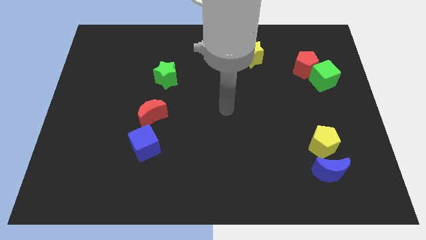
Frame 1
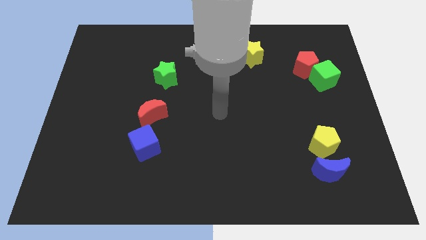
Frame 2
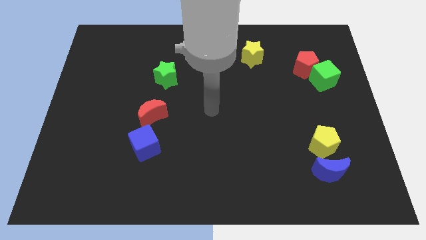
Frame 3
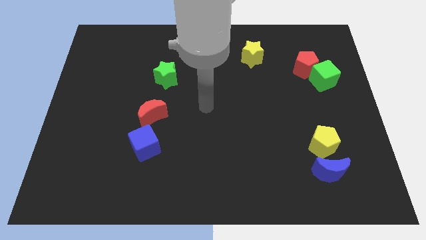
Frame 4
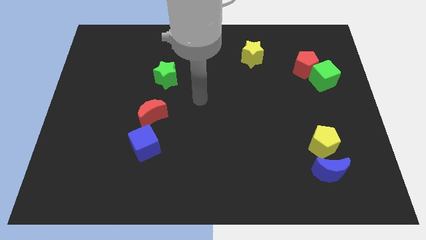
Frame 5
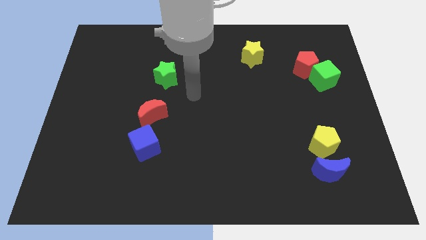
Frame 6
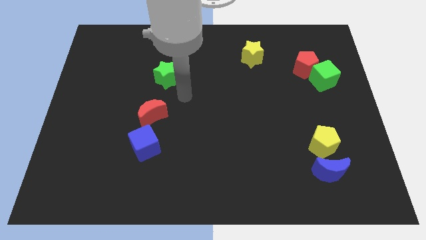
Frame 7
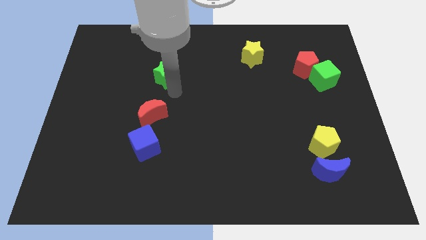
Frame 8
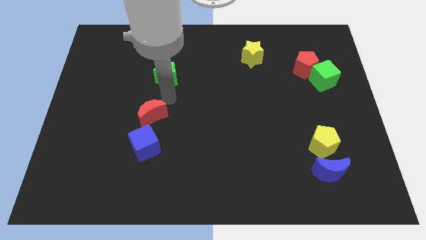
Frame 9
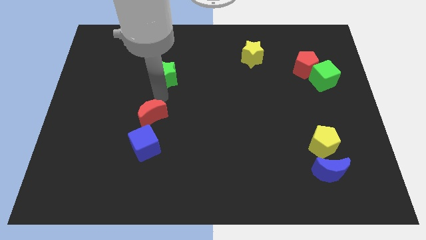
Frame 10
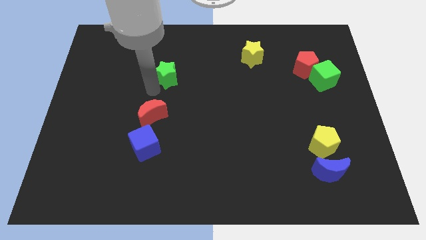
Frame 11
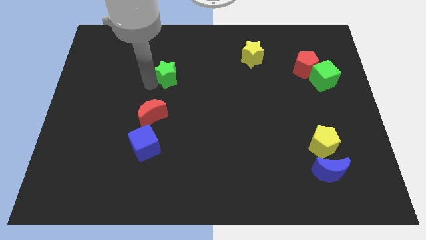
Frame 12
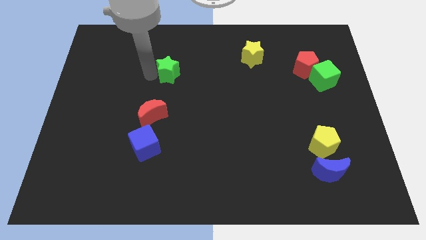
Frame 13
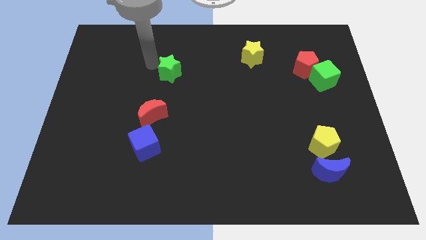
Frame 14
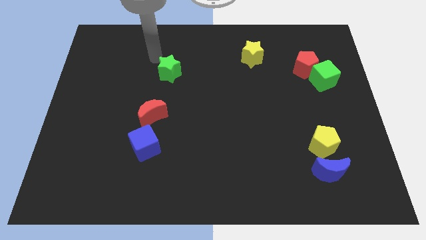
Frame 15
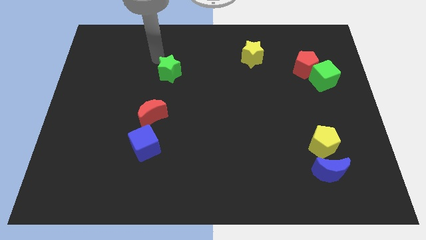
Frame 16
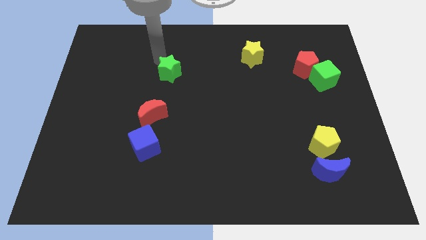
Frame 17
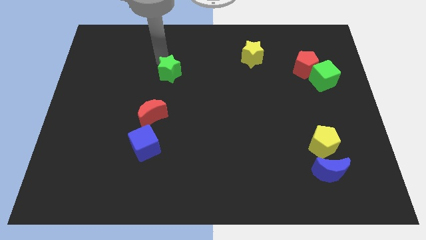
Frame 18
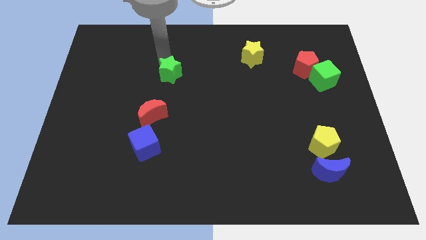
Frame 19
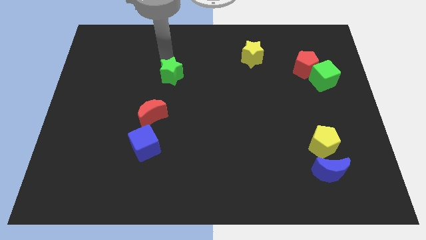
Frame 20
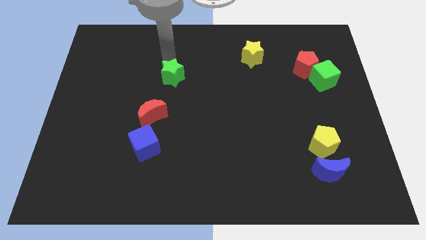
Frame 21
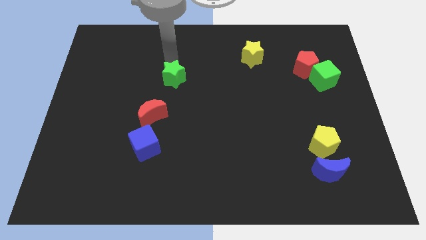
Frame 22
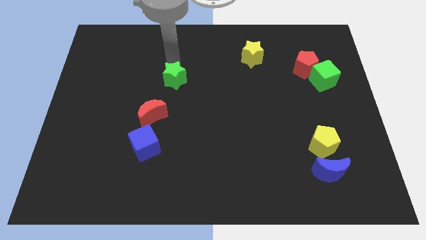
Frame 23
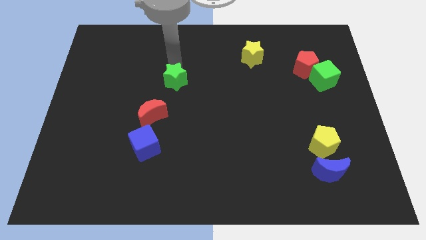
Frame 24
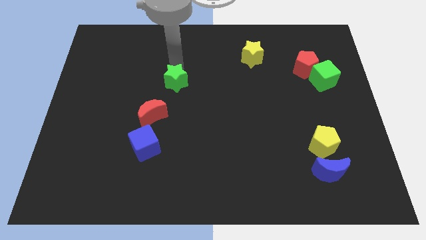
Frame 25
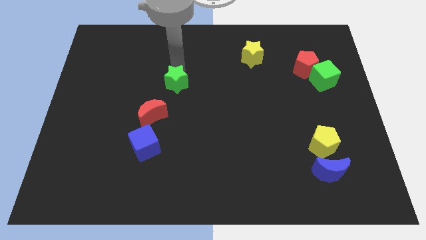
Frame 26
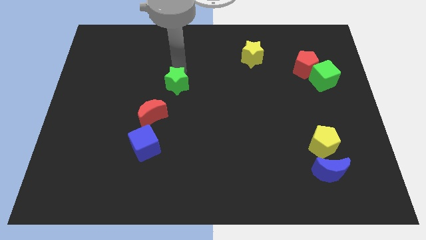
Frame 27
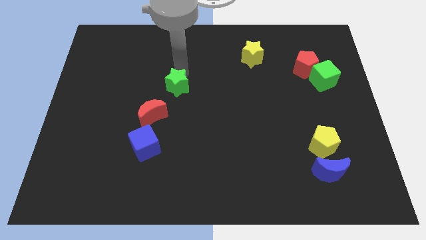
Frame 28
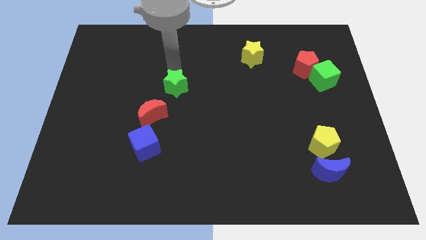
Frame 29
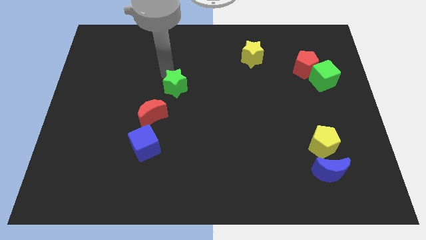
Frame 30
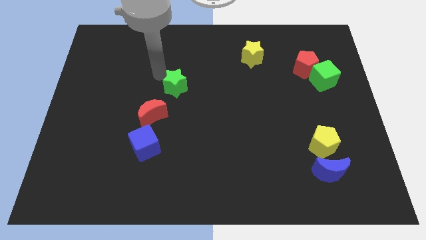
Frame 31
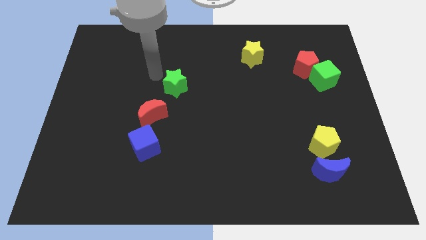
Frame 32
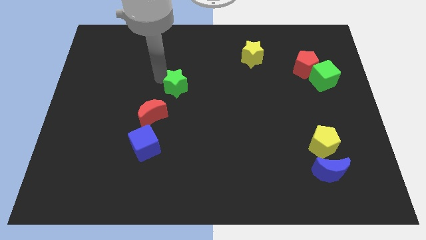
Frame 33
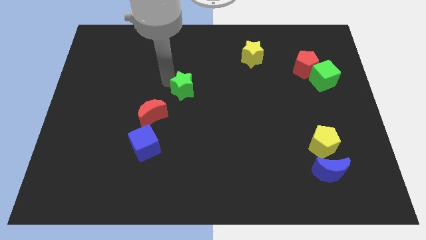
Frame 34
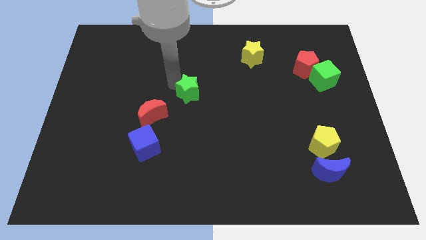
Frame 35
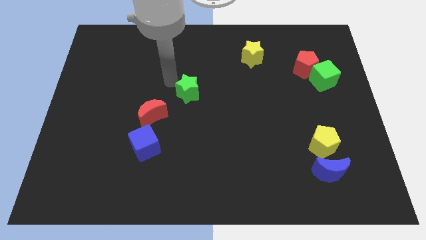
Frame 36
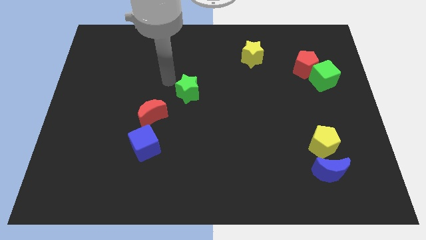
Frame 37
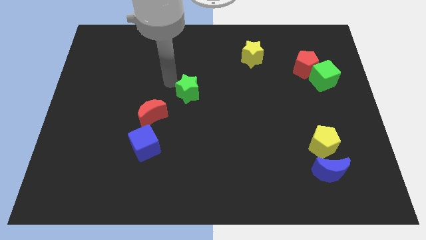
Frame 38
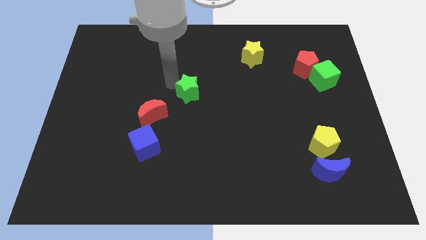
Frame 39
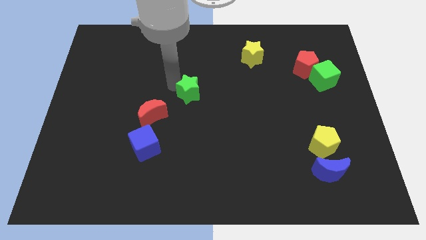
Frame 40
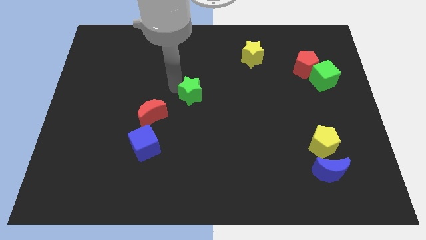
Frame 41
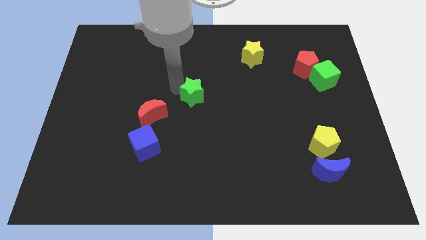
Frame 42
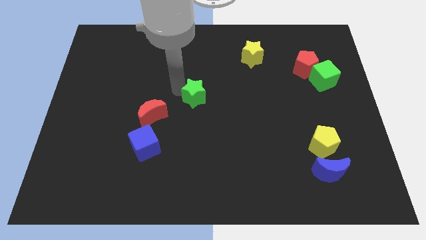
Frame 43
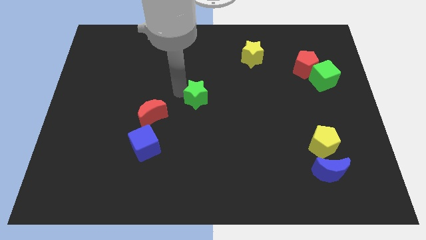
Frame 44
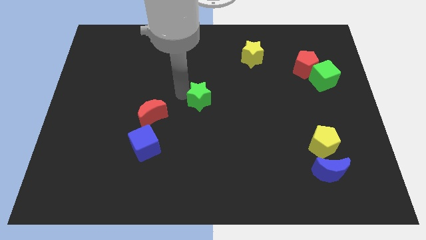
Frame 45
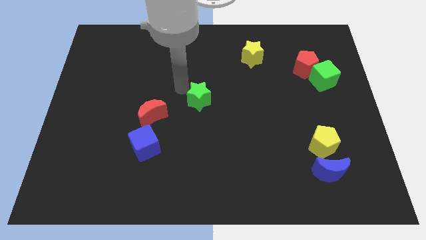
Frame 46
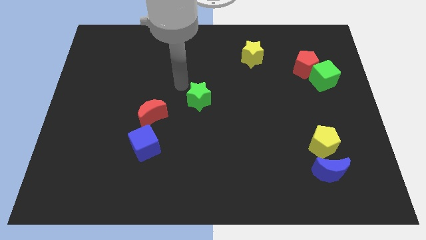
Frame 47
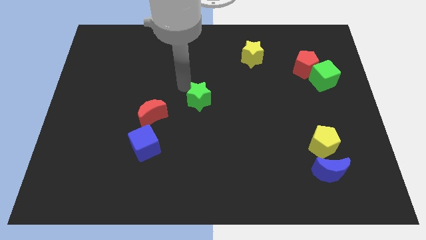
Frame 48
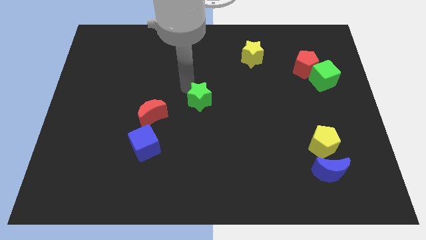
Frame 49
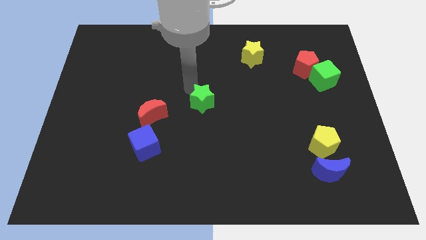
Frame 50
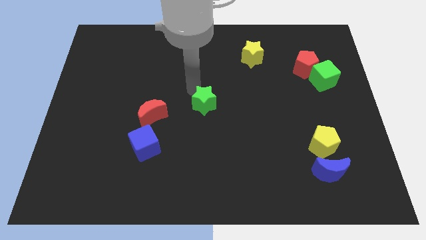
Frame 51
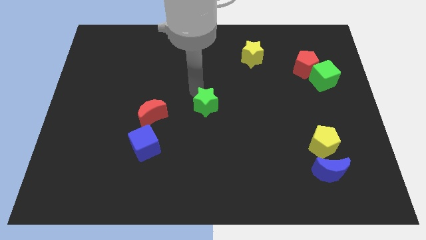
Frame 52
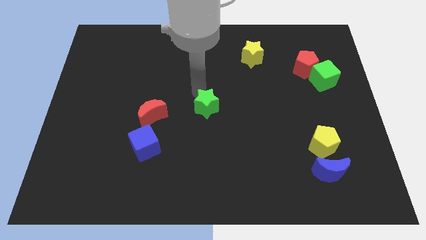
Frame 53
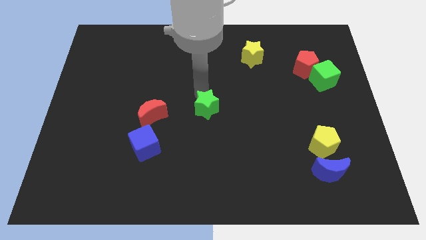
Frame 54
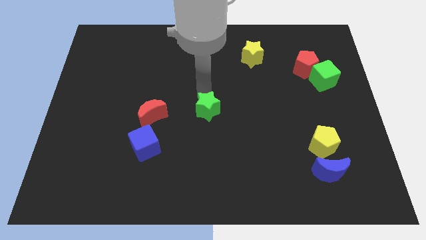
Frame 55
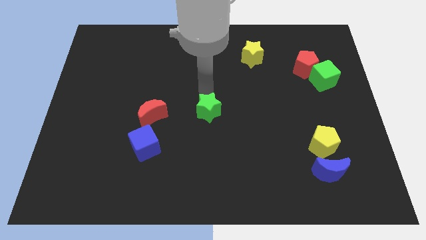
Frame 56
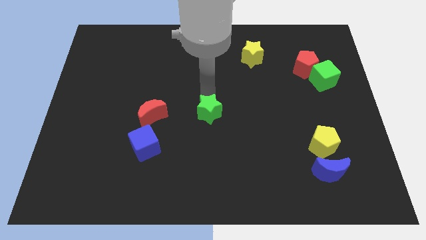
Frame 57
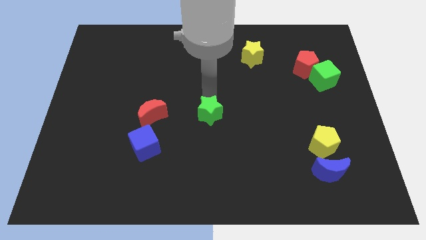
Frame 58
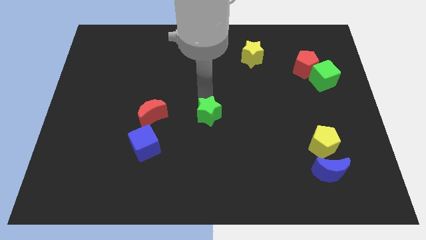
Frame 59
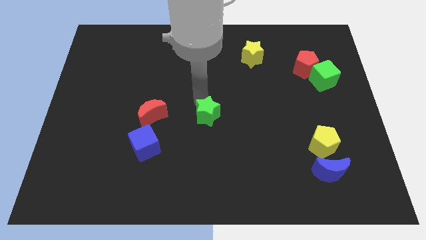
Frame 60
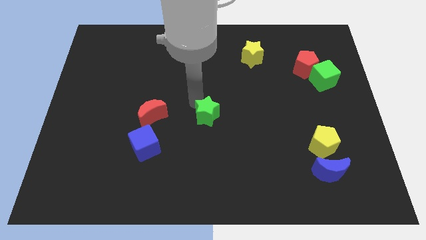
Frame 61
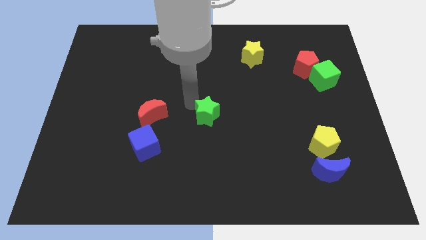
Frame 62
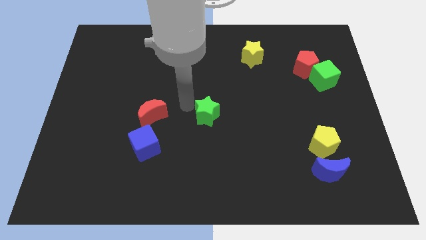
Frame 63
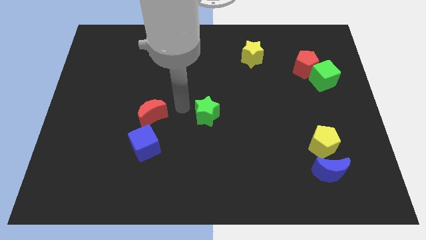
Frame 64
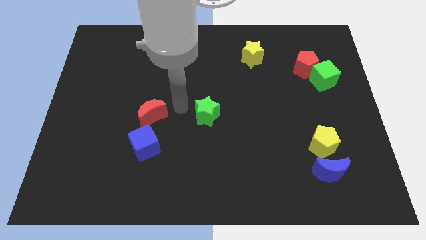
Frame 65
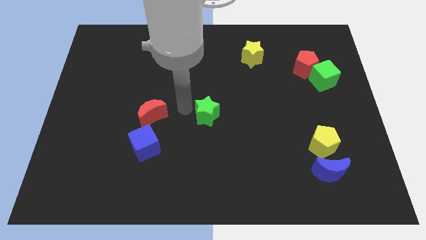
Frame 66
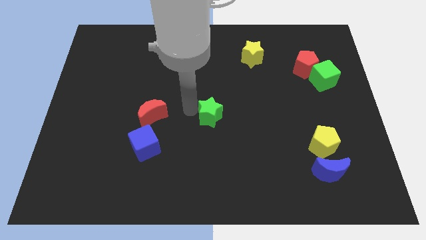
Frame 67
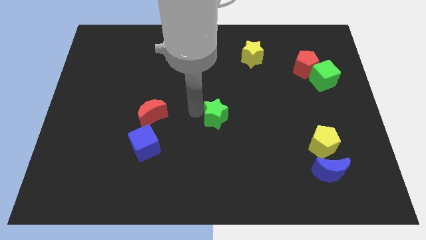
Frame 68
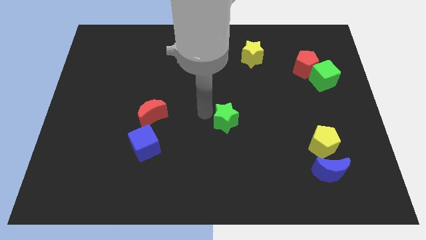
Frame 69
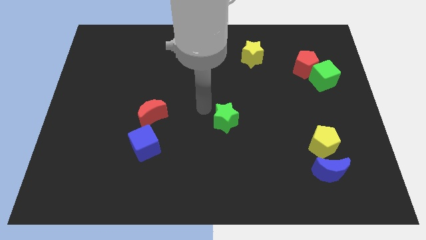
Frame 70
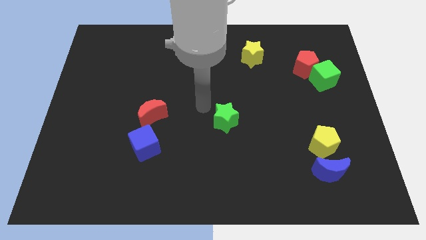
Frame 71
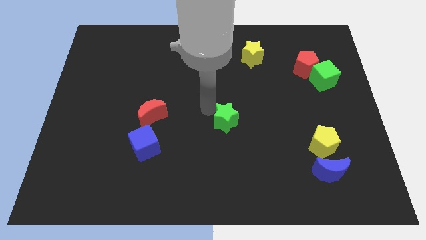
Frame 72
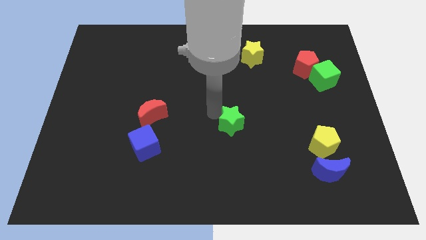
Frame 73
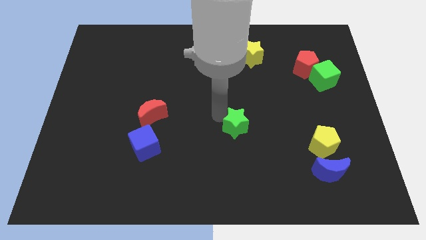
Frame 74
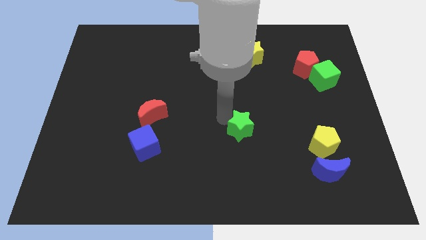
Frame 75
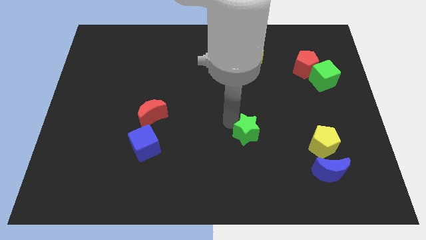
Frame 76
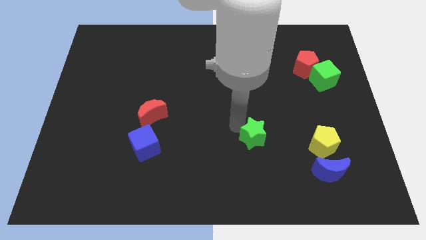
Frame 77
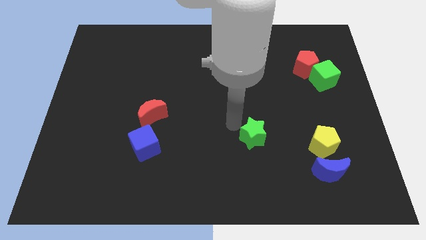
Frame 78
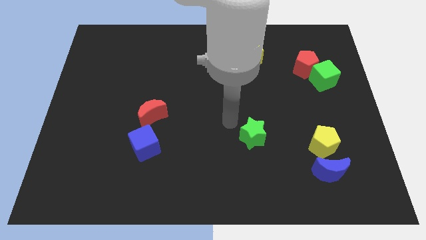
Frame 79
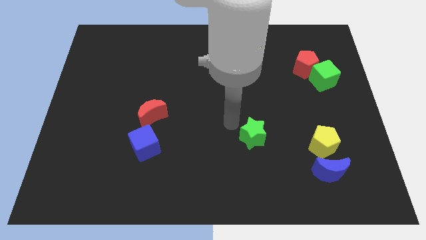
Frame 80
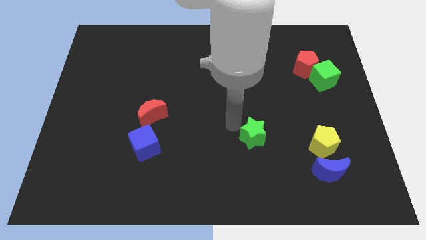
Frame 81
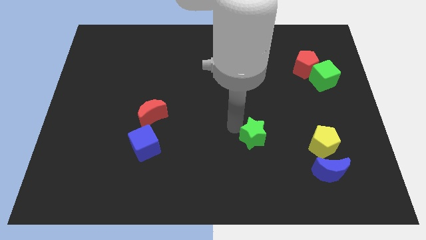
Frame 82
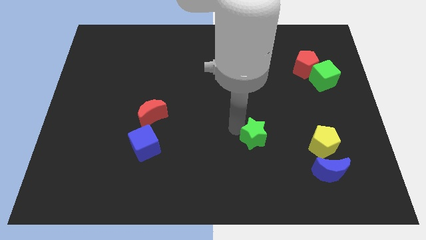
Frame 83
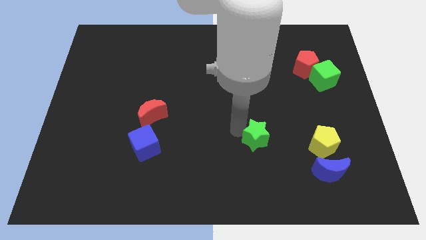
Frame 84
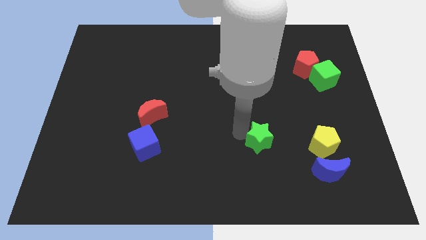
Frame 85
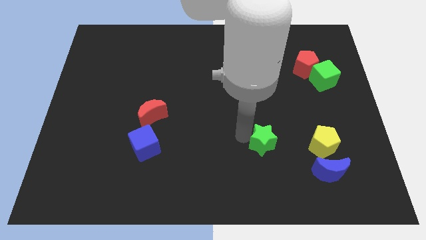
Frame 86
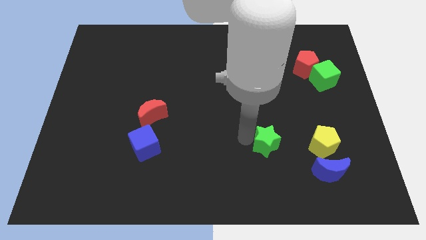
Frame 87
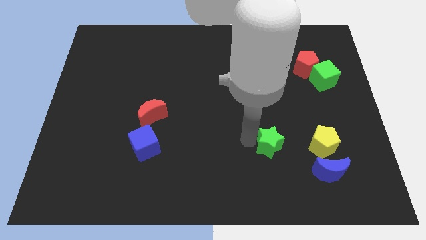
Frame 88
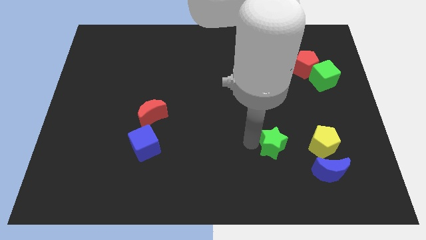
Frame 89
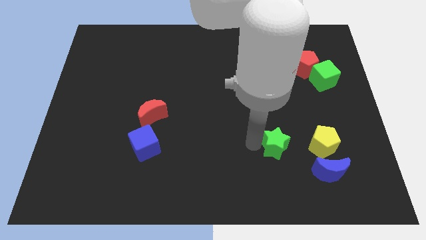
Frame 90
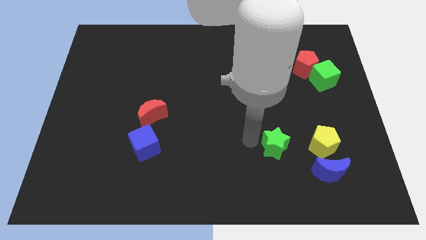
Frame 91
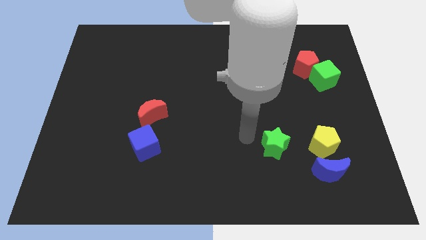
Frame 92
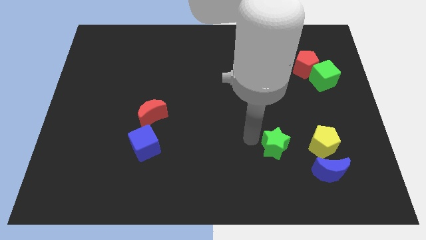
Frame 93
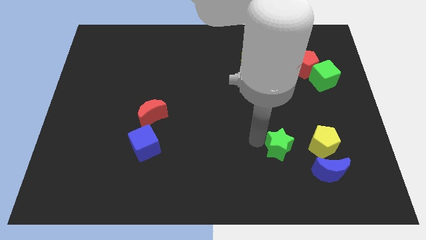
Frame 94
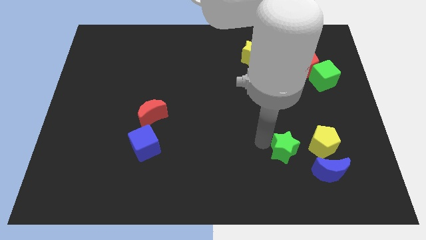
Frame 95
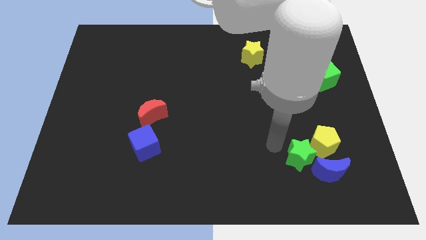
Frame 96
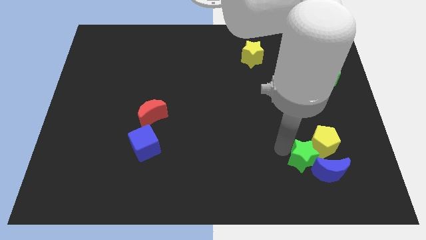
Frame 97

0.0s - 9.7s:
move the green star close to the blue moon
